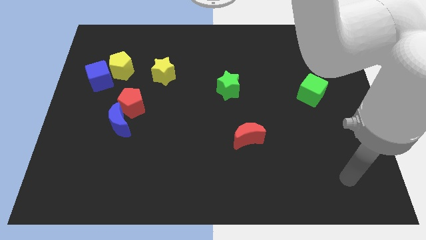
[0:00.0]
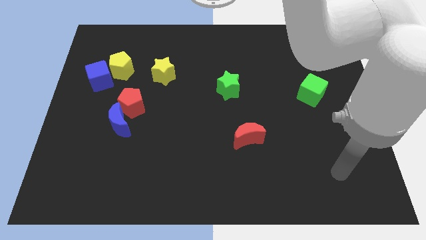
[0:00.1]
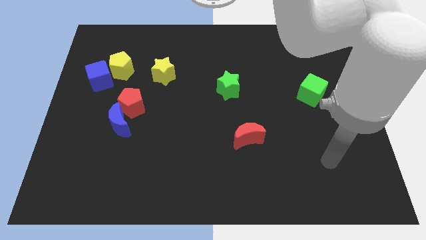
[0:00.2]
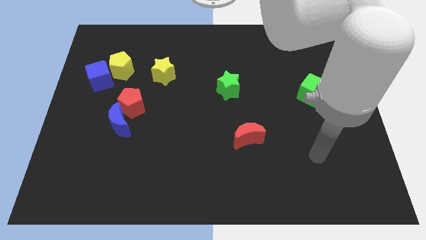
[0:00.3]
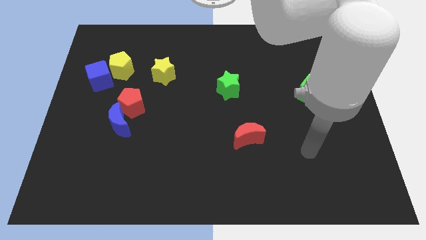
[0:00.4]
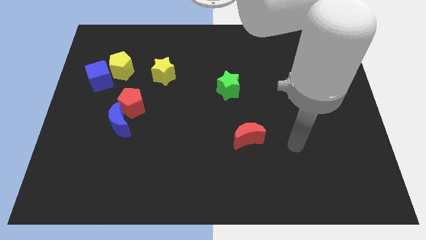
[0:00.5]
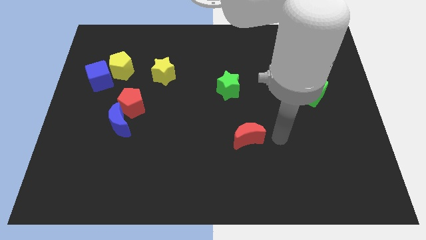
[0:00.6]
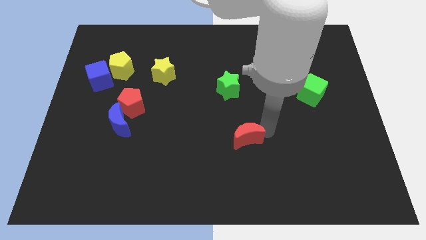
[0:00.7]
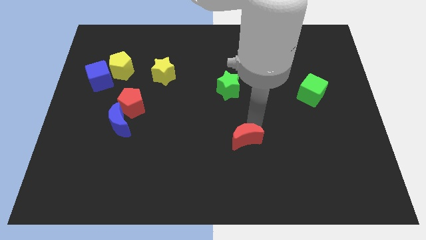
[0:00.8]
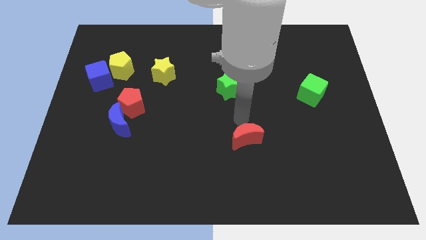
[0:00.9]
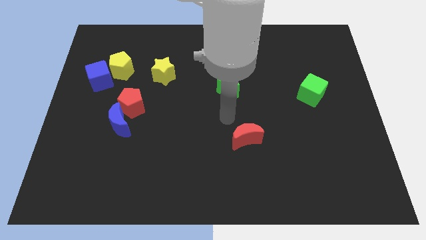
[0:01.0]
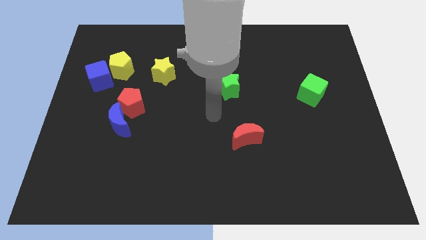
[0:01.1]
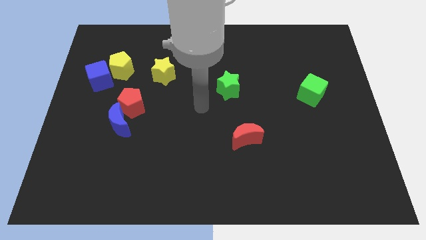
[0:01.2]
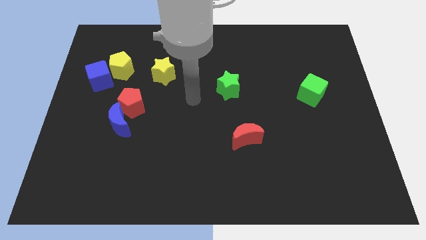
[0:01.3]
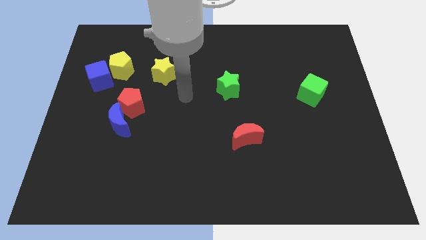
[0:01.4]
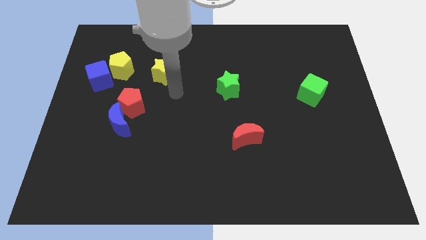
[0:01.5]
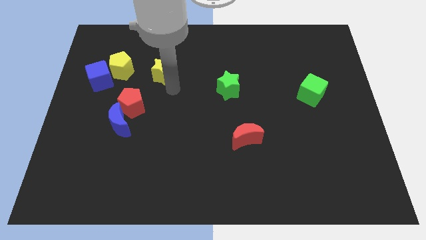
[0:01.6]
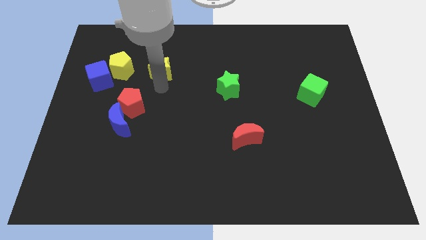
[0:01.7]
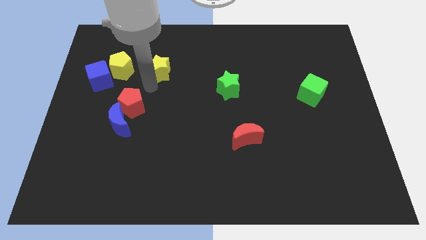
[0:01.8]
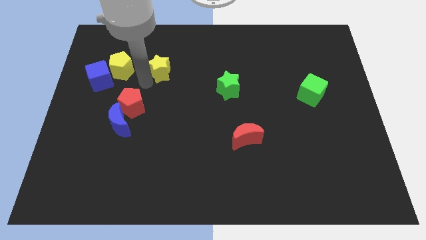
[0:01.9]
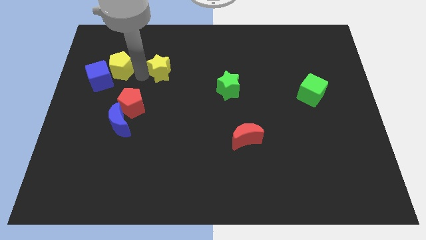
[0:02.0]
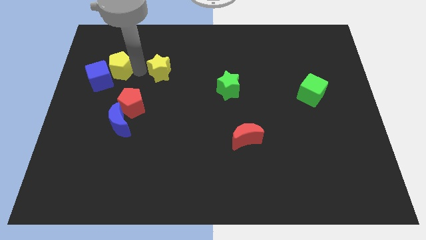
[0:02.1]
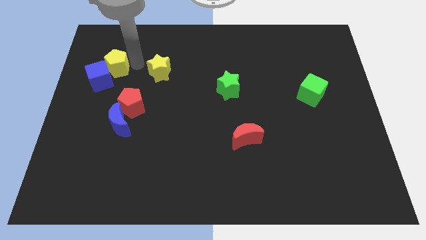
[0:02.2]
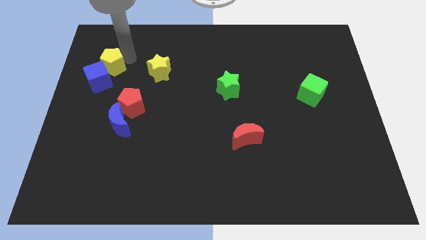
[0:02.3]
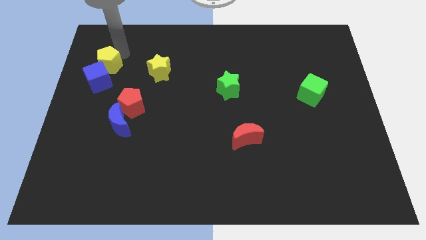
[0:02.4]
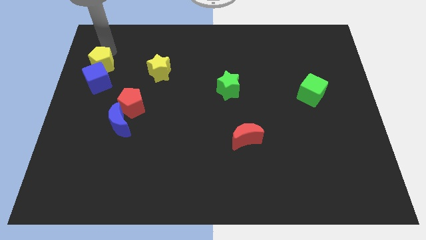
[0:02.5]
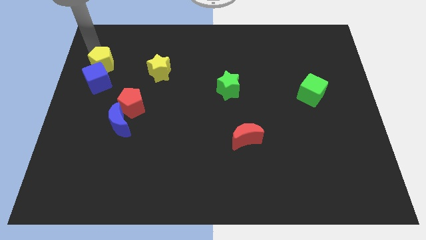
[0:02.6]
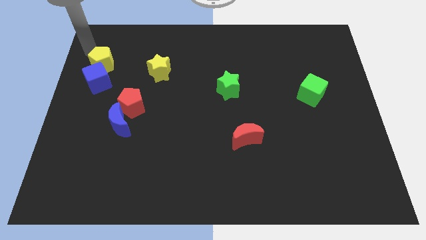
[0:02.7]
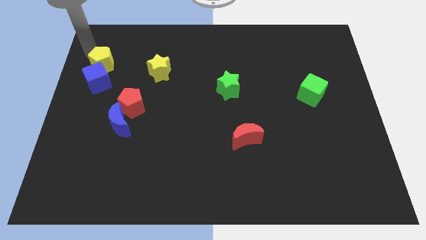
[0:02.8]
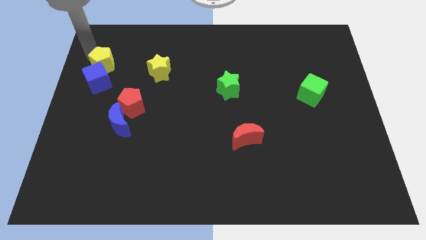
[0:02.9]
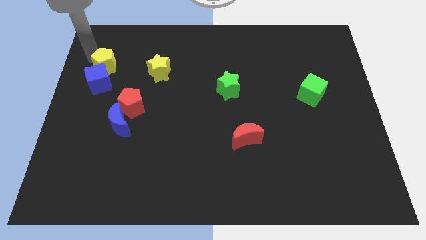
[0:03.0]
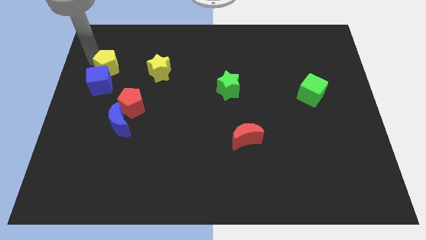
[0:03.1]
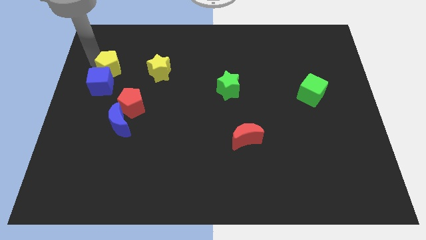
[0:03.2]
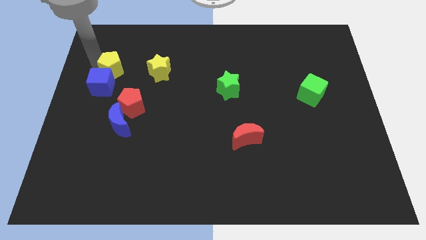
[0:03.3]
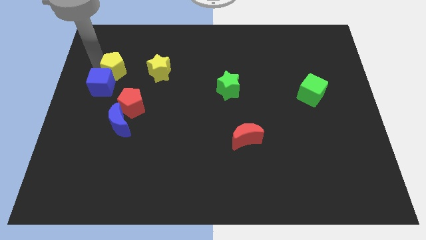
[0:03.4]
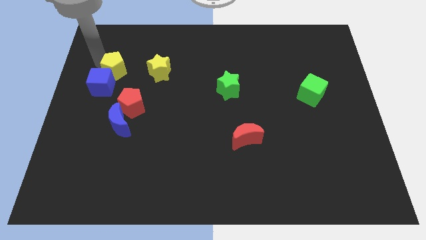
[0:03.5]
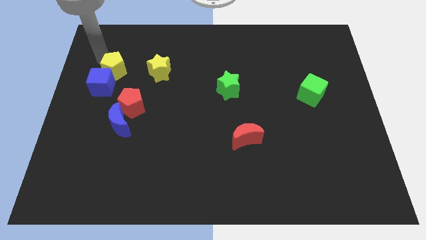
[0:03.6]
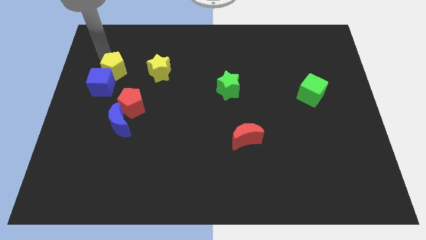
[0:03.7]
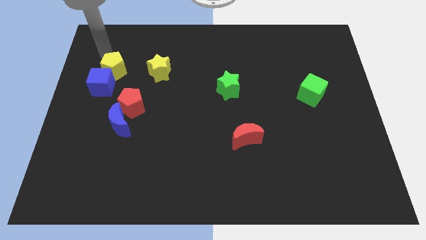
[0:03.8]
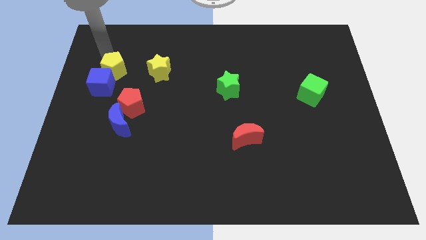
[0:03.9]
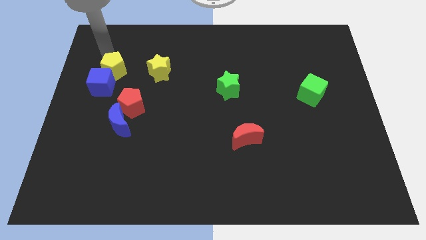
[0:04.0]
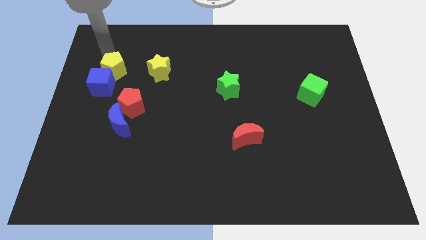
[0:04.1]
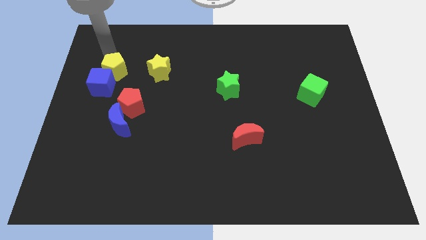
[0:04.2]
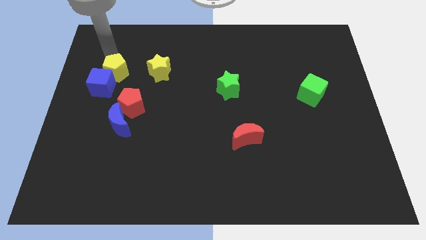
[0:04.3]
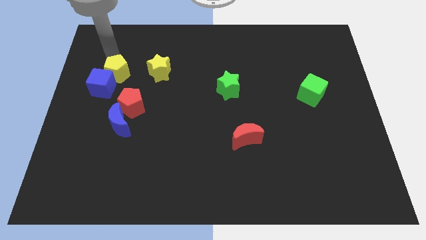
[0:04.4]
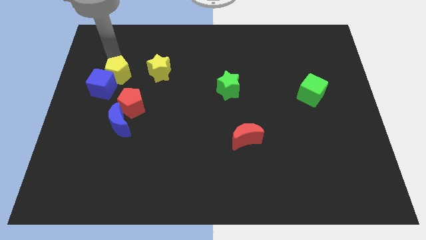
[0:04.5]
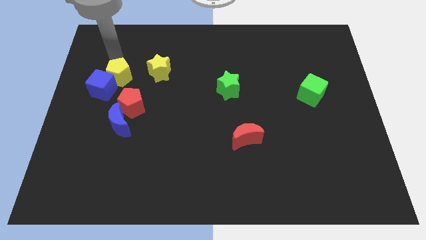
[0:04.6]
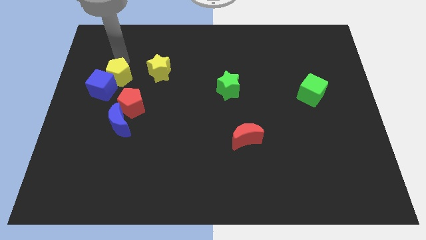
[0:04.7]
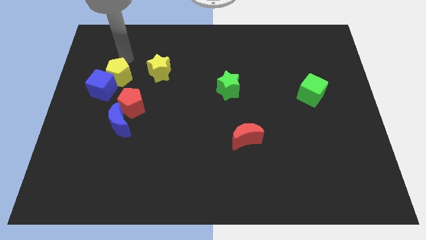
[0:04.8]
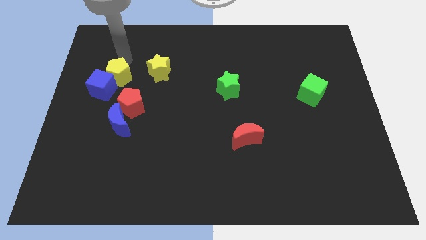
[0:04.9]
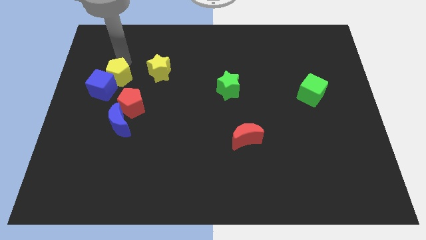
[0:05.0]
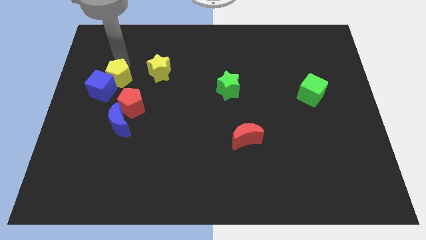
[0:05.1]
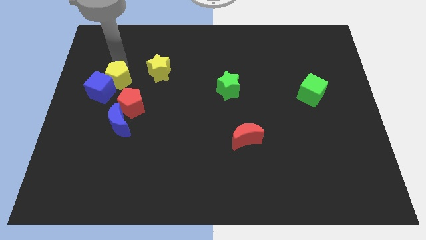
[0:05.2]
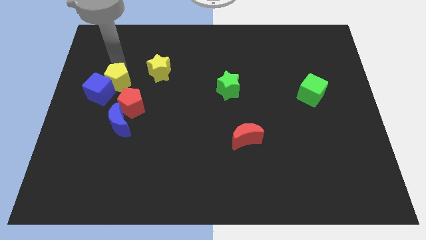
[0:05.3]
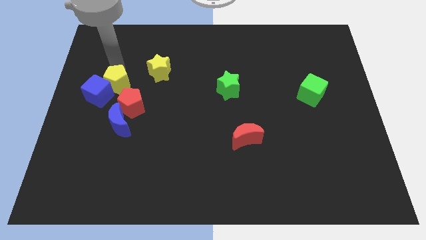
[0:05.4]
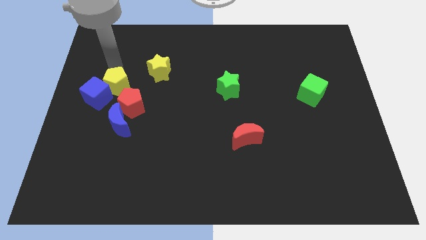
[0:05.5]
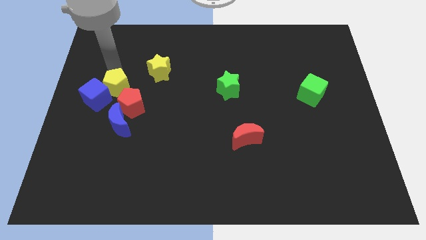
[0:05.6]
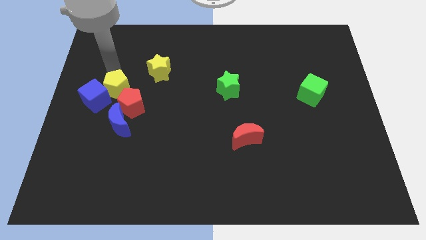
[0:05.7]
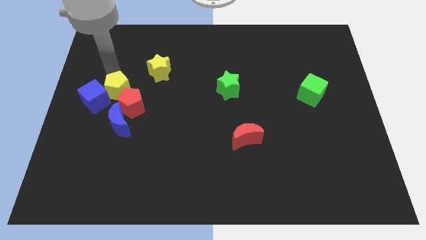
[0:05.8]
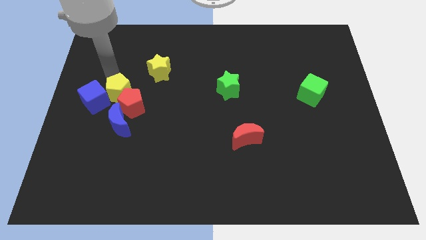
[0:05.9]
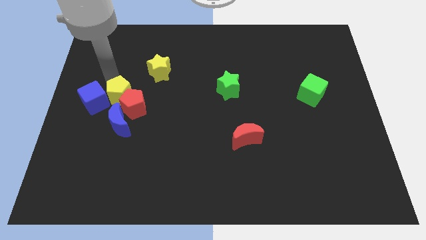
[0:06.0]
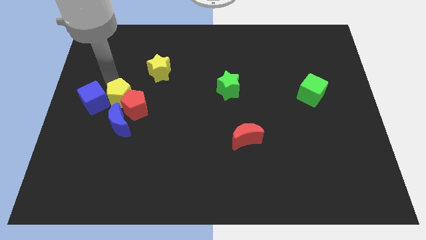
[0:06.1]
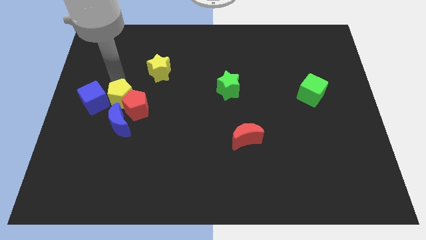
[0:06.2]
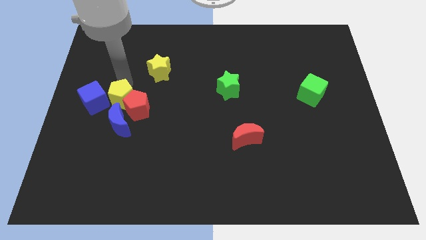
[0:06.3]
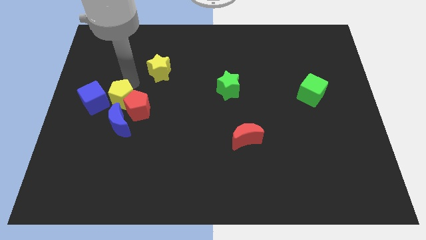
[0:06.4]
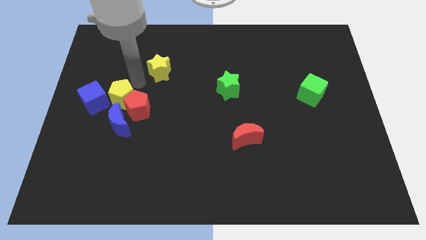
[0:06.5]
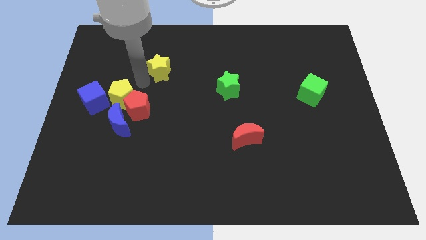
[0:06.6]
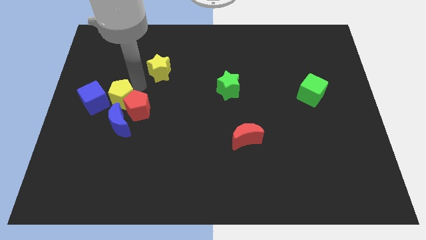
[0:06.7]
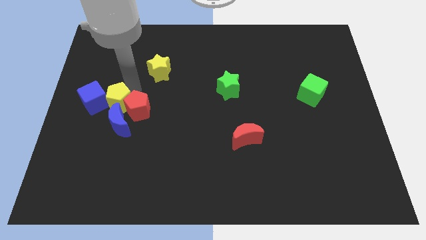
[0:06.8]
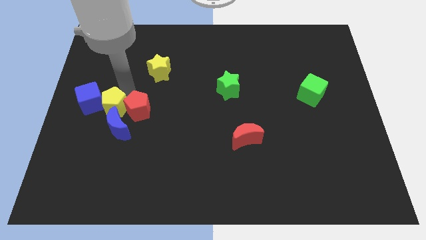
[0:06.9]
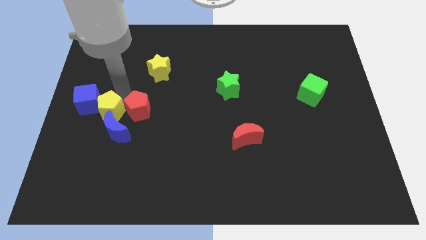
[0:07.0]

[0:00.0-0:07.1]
move the yellow pentagon next to the blue moon
